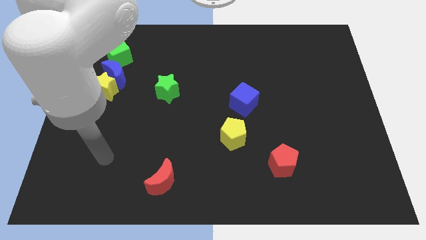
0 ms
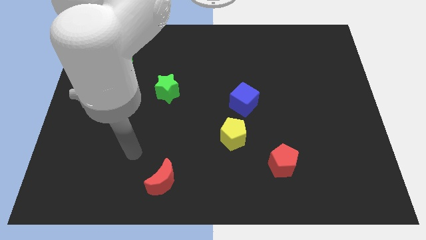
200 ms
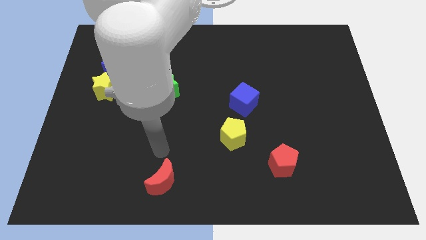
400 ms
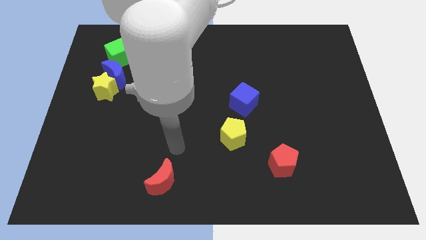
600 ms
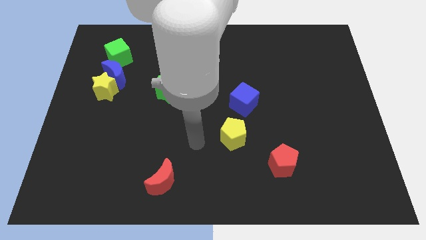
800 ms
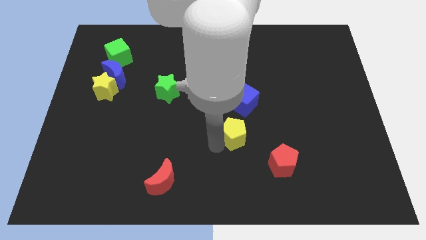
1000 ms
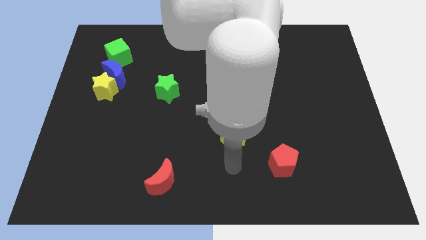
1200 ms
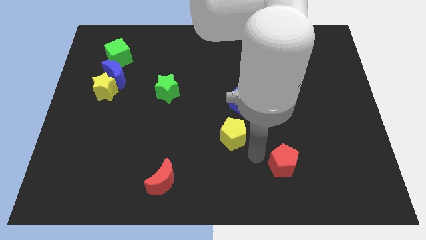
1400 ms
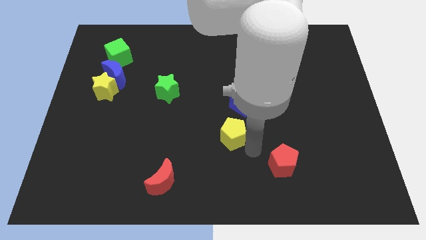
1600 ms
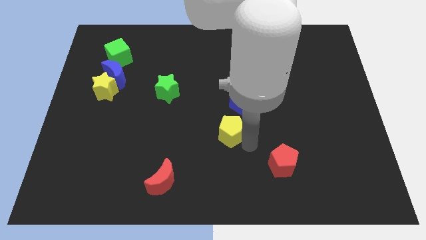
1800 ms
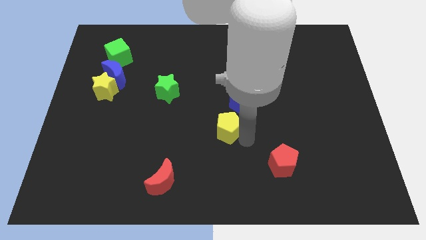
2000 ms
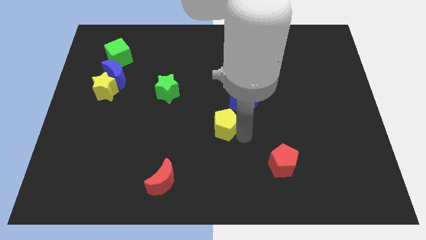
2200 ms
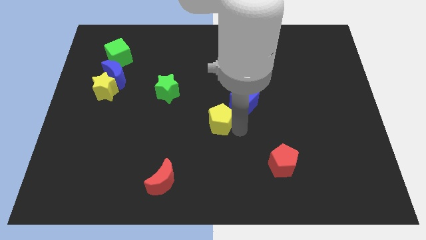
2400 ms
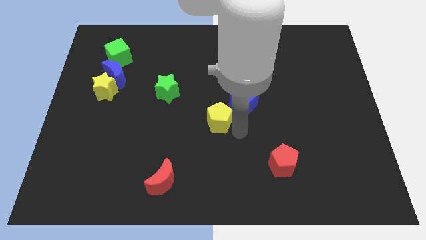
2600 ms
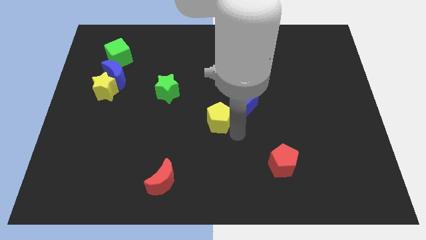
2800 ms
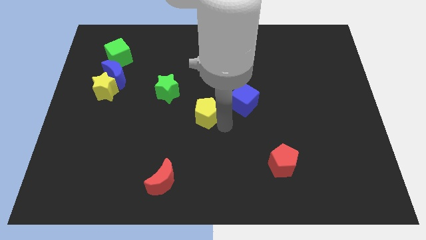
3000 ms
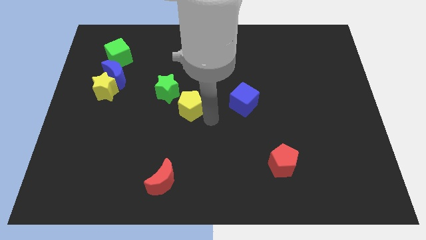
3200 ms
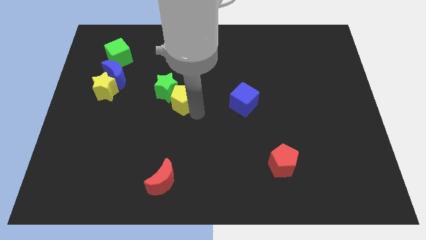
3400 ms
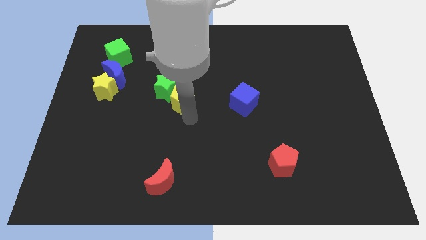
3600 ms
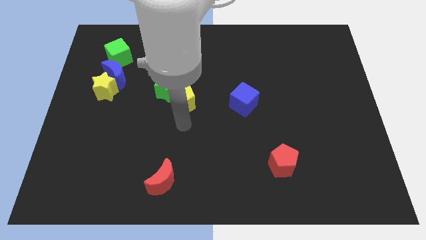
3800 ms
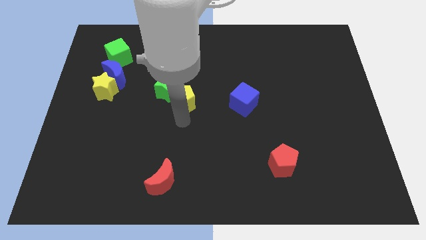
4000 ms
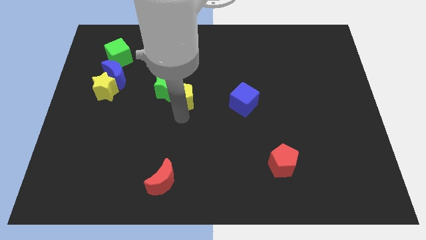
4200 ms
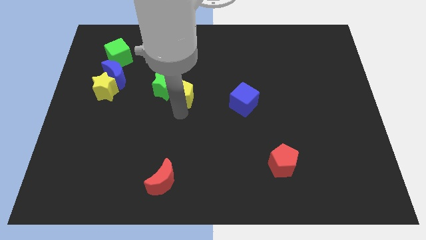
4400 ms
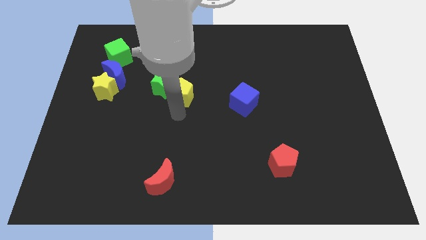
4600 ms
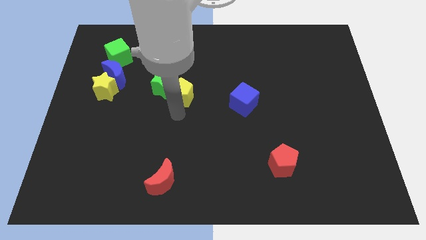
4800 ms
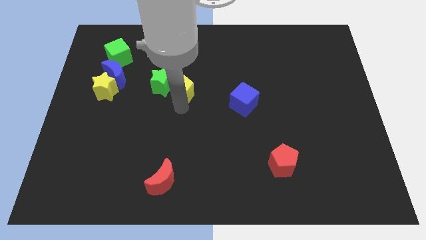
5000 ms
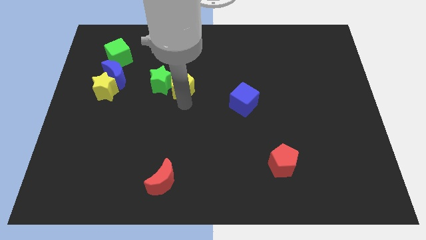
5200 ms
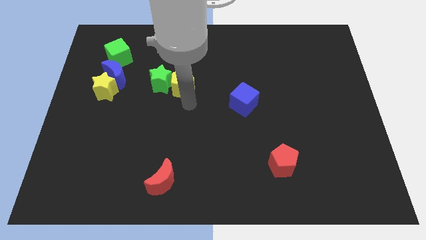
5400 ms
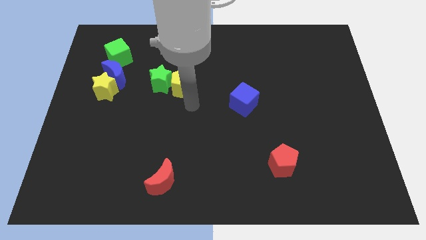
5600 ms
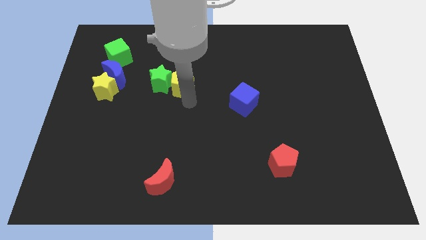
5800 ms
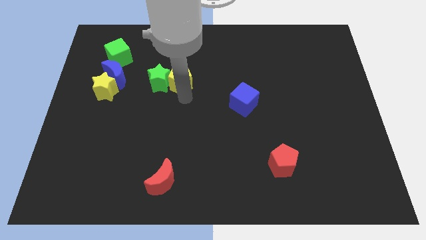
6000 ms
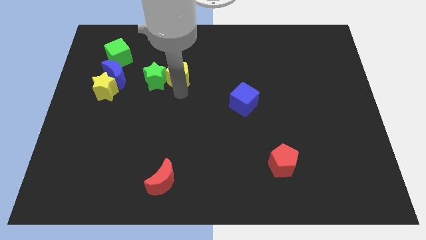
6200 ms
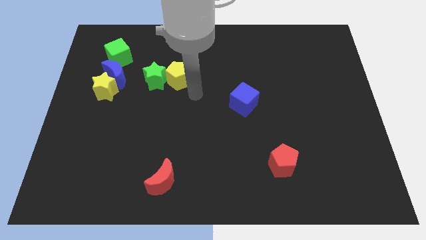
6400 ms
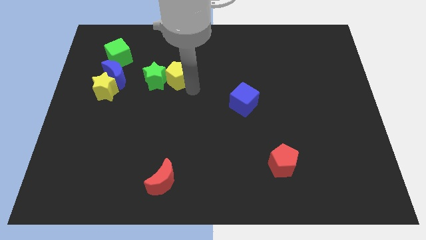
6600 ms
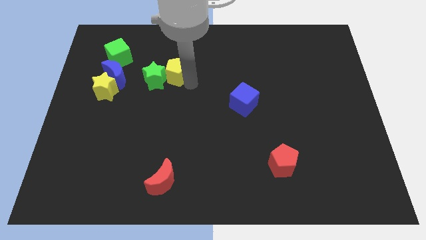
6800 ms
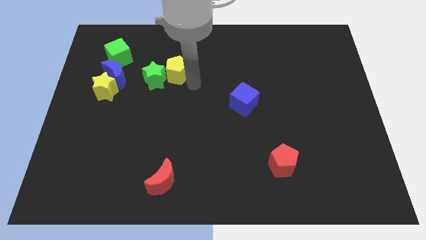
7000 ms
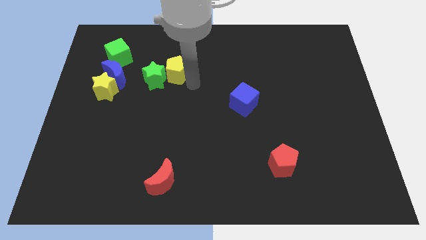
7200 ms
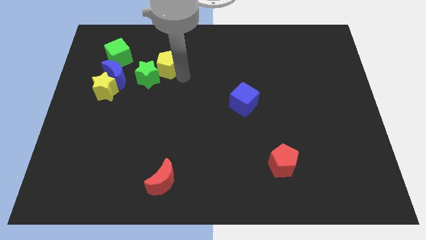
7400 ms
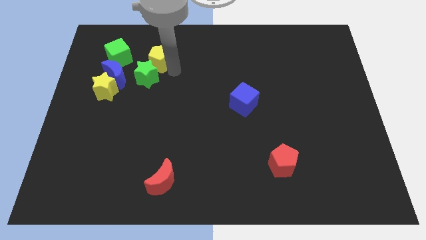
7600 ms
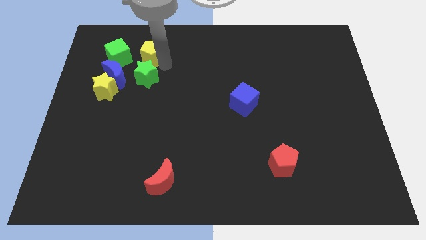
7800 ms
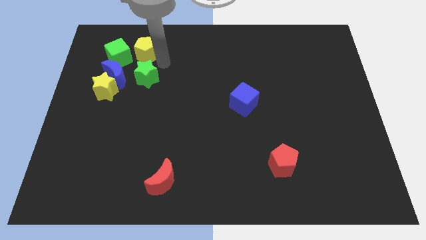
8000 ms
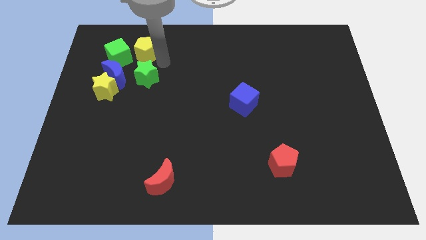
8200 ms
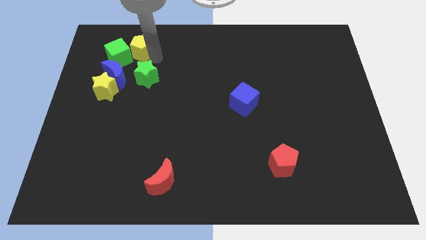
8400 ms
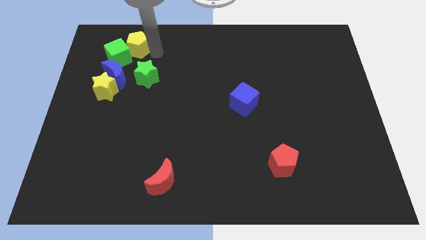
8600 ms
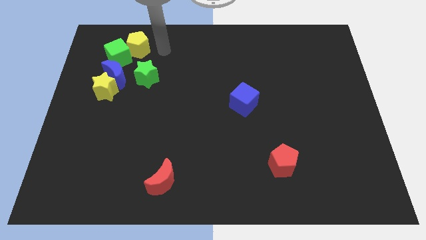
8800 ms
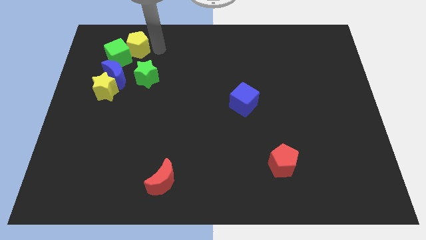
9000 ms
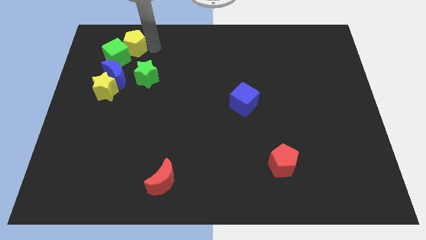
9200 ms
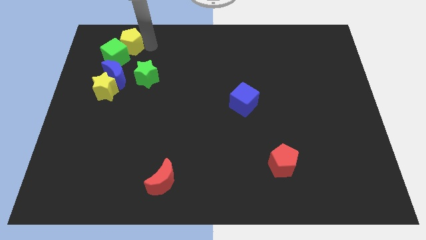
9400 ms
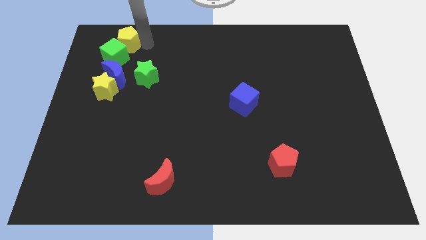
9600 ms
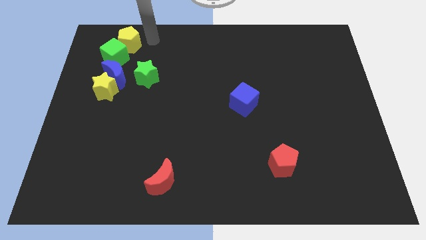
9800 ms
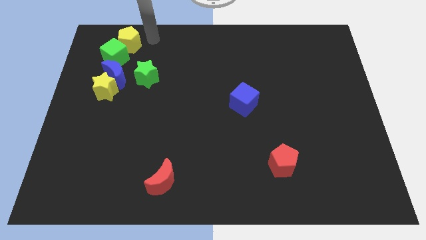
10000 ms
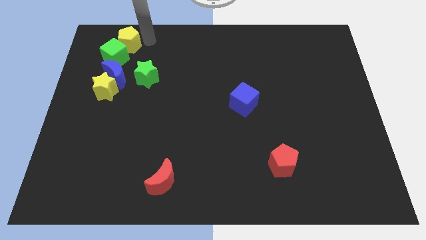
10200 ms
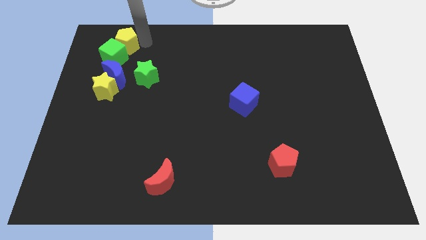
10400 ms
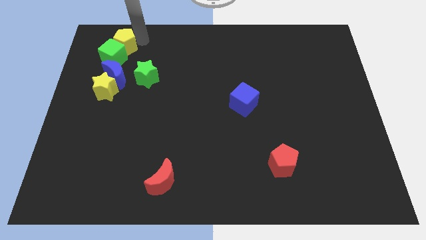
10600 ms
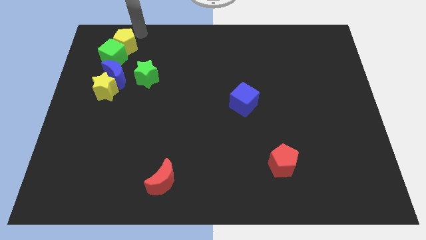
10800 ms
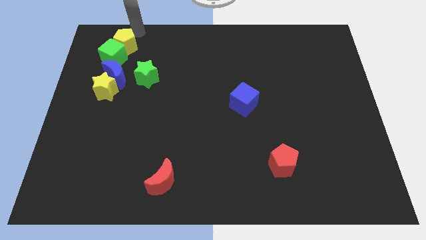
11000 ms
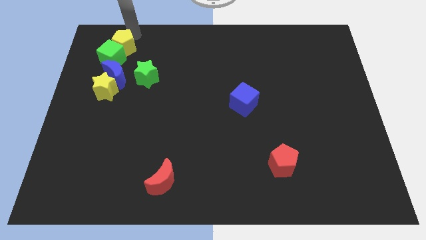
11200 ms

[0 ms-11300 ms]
slide the yellow pentagon to the top of the yellow star

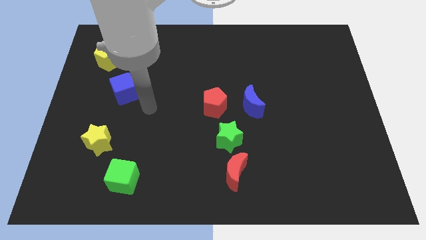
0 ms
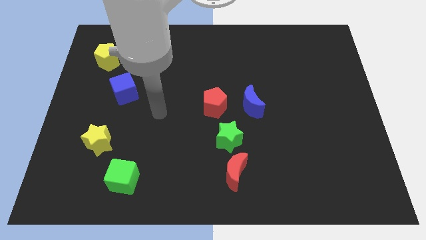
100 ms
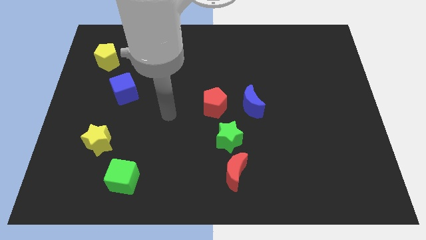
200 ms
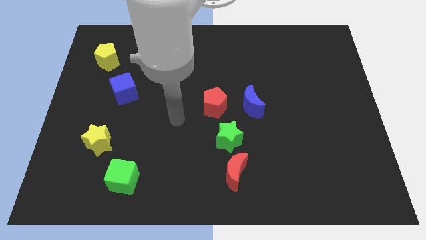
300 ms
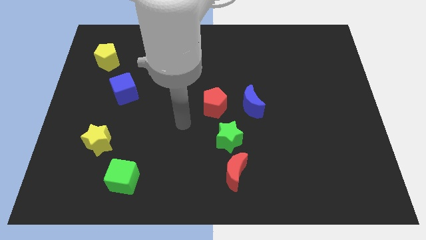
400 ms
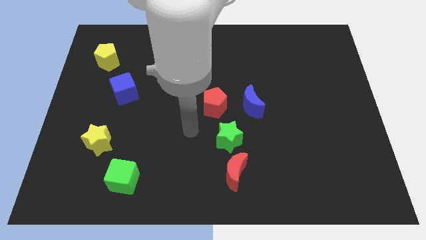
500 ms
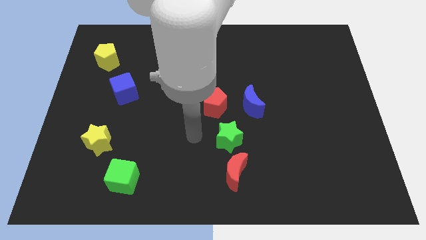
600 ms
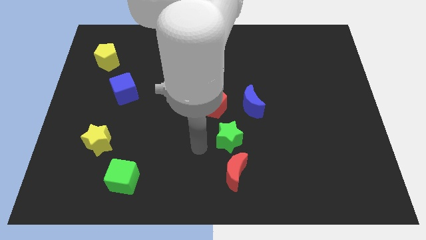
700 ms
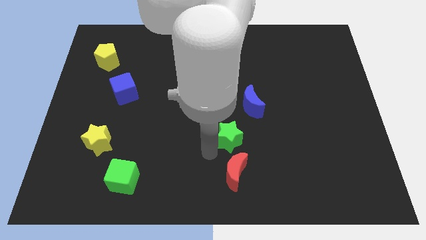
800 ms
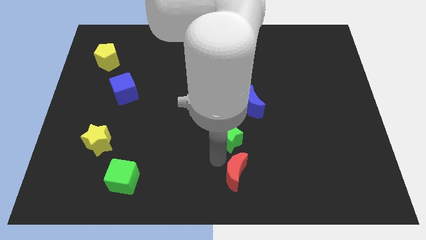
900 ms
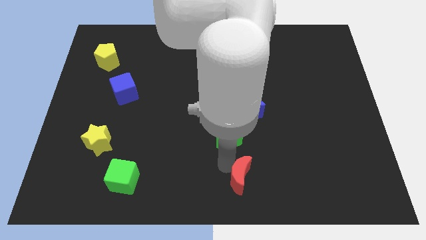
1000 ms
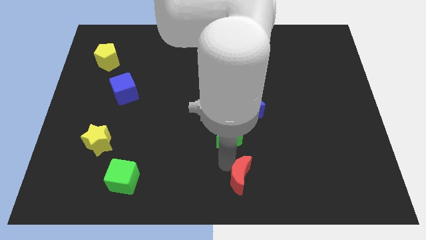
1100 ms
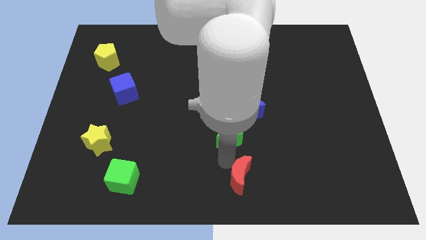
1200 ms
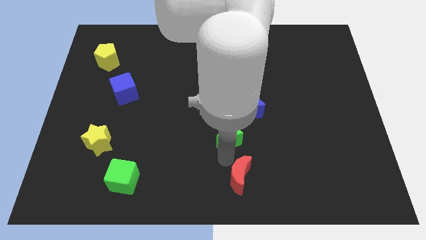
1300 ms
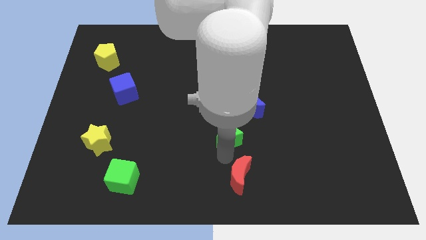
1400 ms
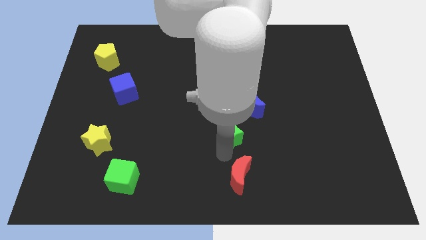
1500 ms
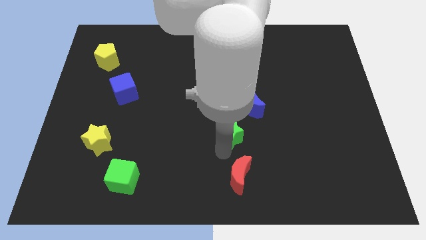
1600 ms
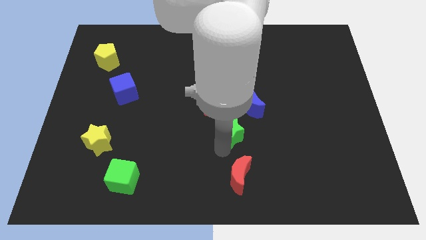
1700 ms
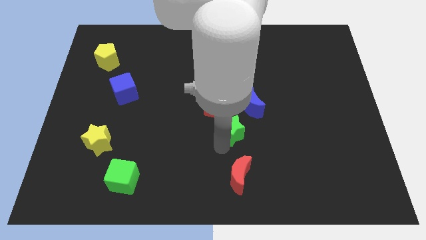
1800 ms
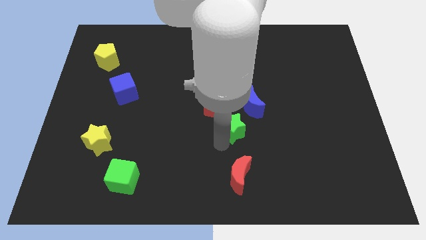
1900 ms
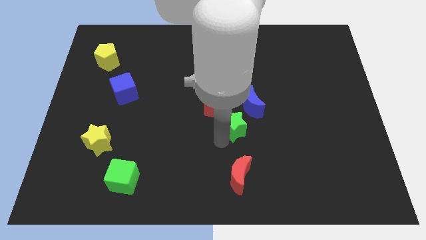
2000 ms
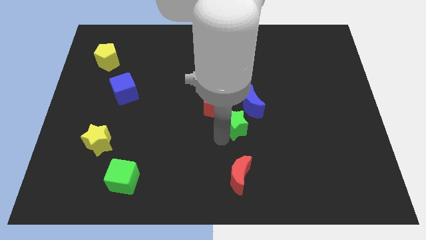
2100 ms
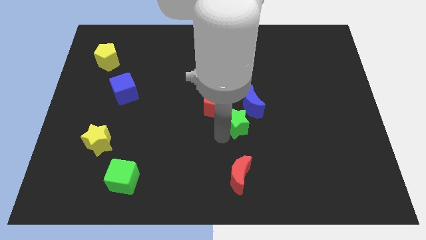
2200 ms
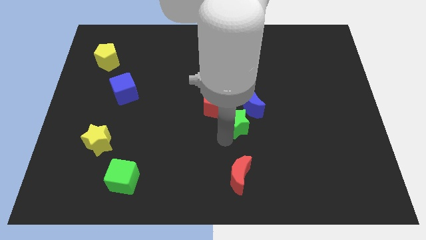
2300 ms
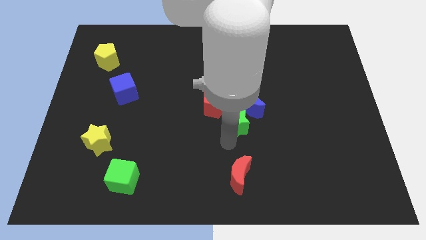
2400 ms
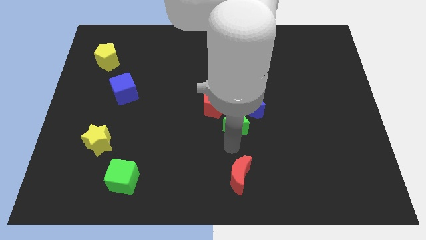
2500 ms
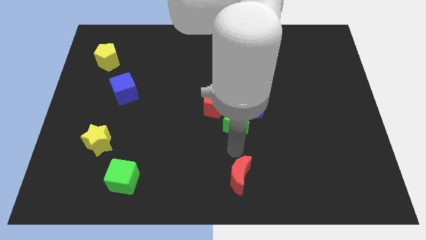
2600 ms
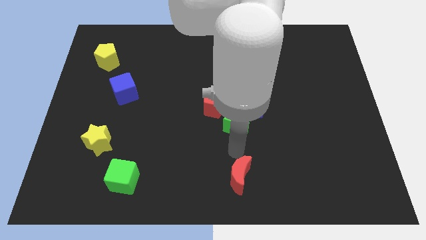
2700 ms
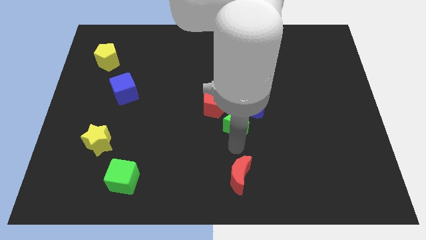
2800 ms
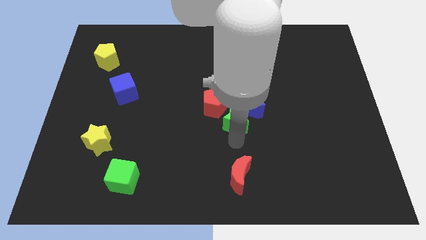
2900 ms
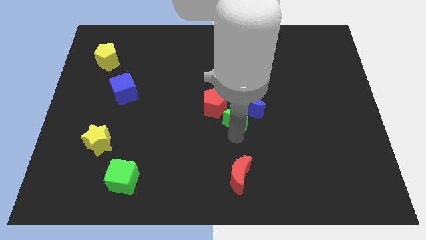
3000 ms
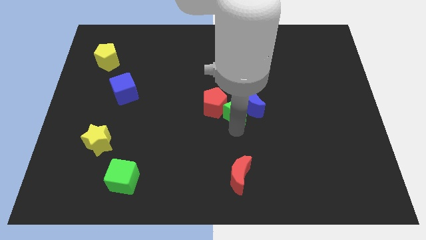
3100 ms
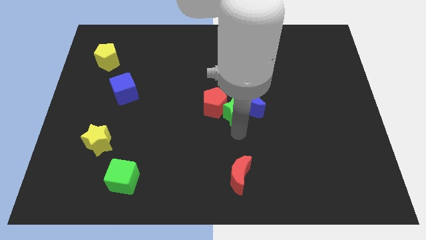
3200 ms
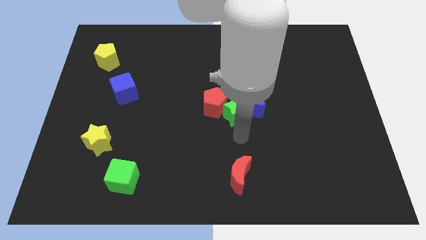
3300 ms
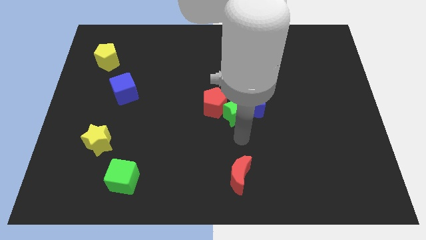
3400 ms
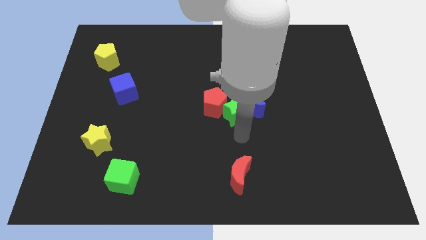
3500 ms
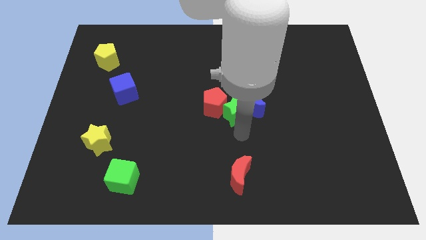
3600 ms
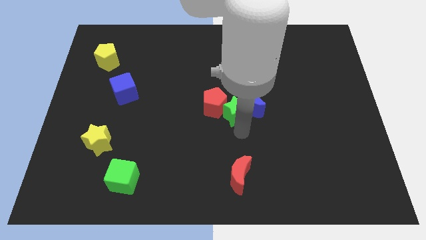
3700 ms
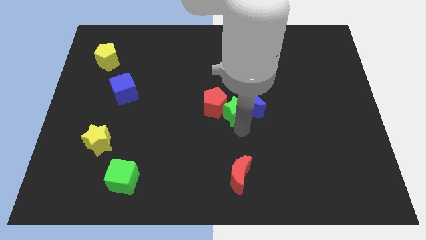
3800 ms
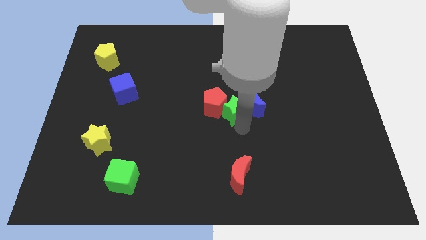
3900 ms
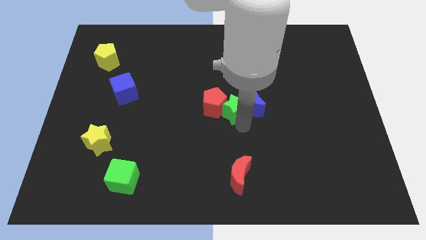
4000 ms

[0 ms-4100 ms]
move the green star diagonally up and to the right of the red pentagon
